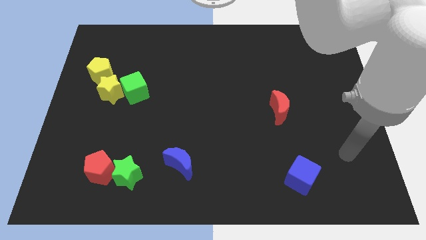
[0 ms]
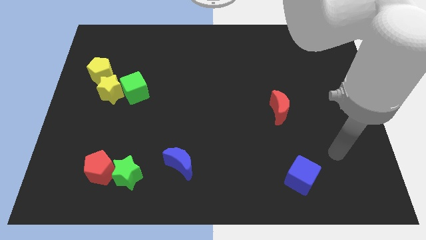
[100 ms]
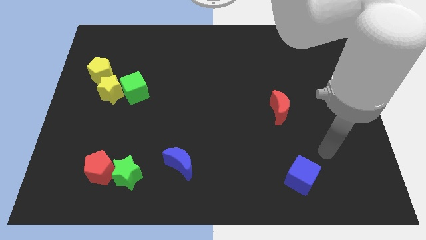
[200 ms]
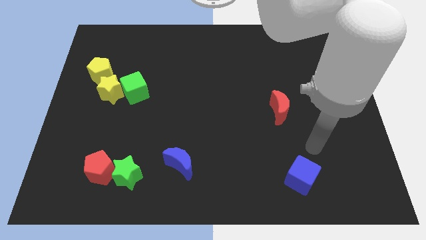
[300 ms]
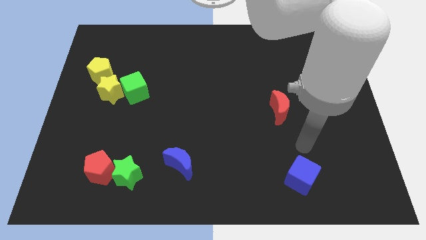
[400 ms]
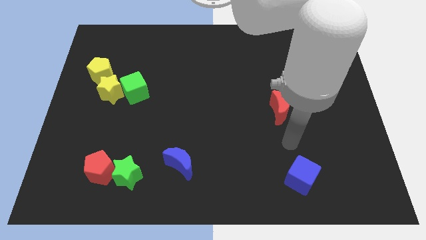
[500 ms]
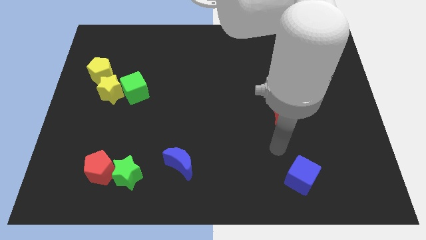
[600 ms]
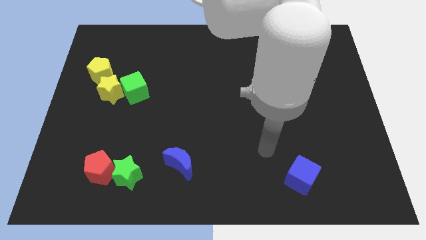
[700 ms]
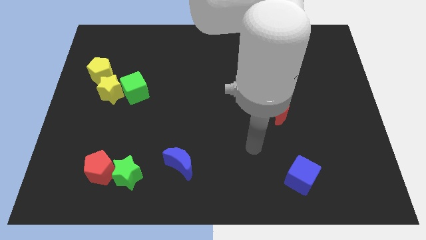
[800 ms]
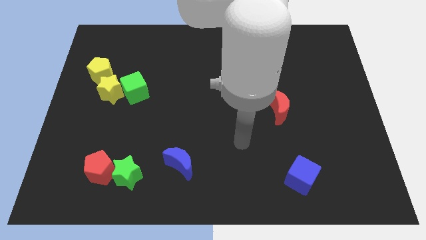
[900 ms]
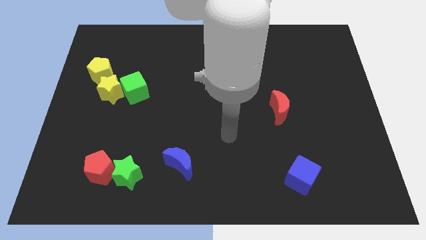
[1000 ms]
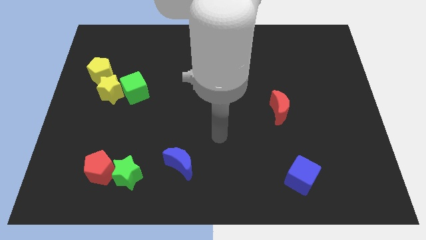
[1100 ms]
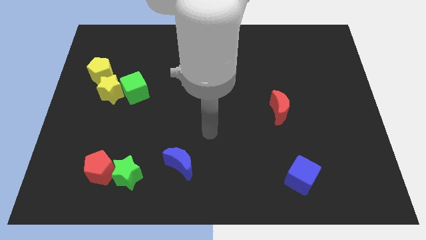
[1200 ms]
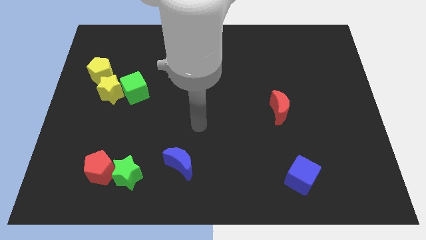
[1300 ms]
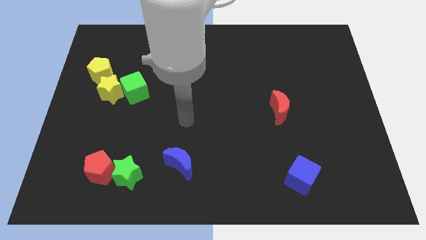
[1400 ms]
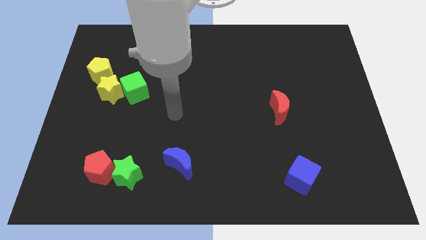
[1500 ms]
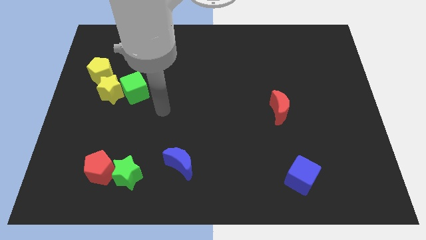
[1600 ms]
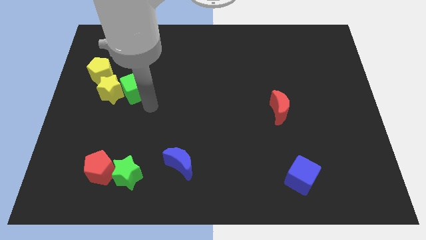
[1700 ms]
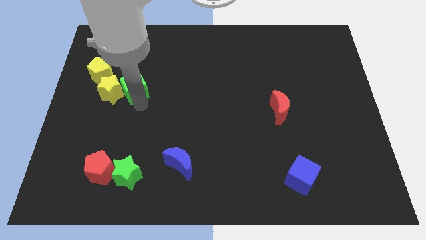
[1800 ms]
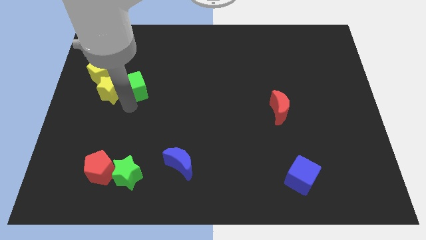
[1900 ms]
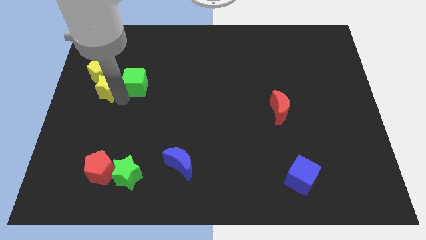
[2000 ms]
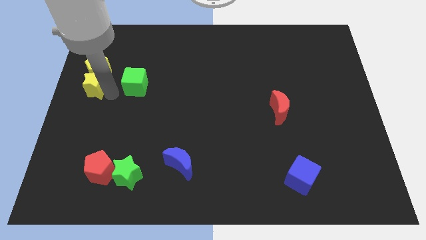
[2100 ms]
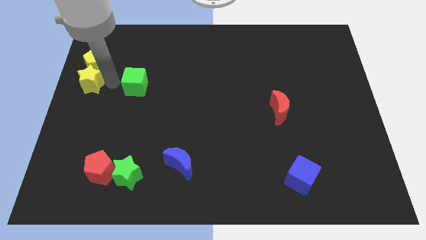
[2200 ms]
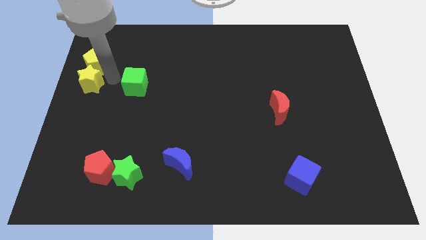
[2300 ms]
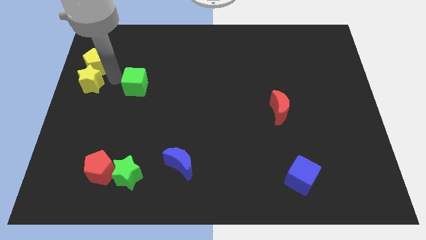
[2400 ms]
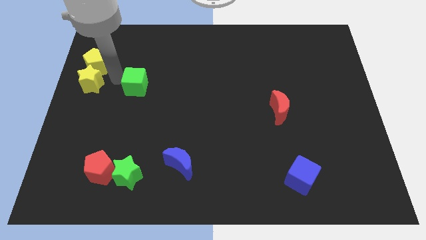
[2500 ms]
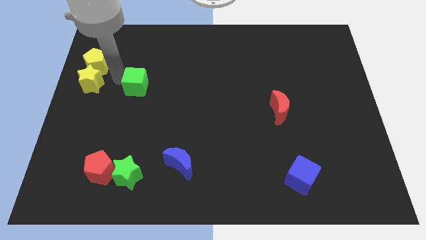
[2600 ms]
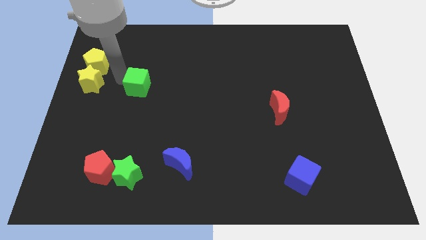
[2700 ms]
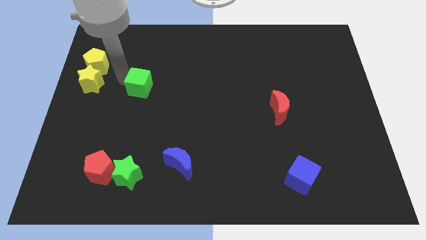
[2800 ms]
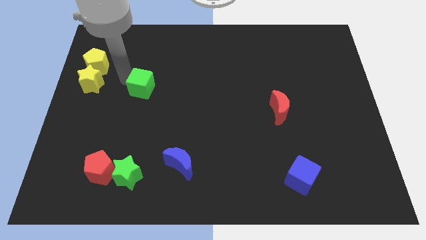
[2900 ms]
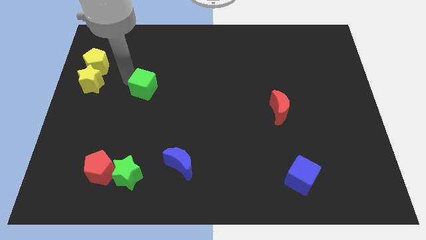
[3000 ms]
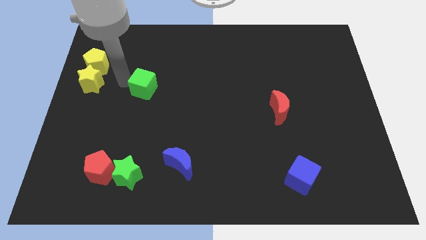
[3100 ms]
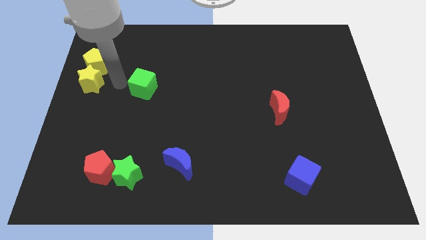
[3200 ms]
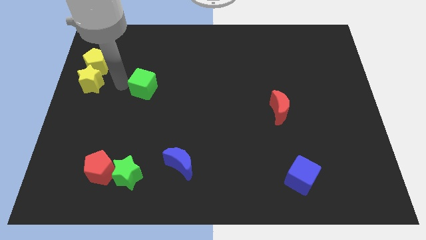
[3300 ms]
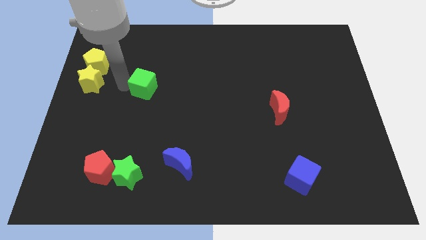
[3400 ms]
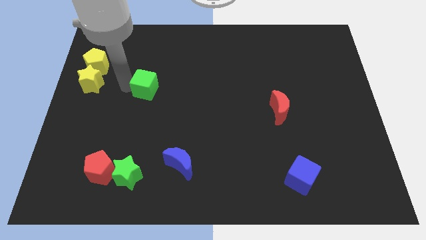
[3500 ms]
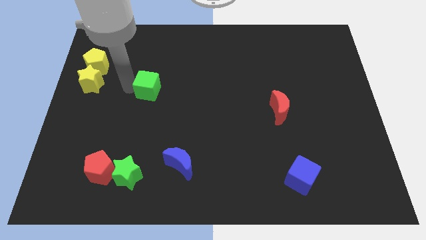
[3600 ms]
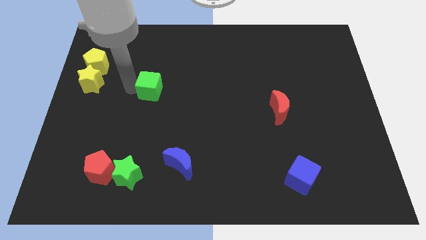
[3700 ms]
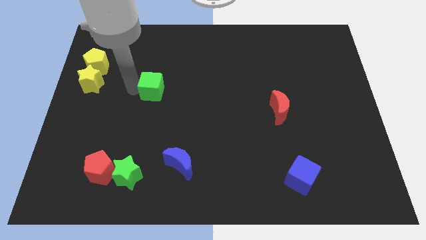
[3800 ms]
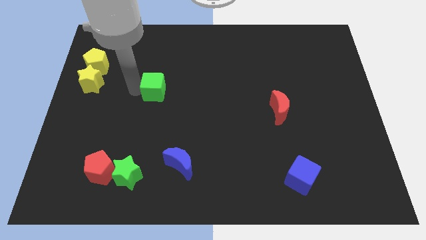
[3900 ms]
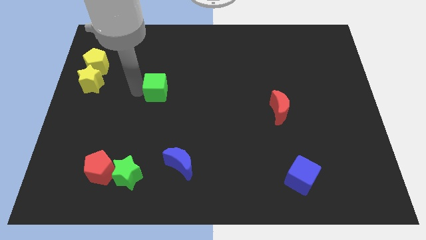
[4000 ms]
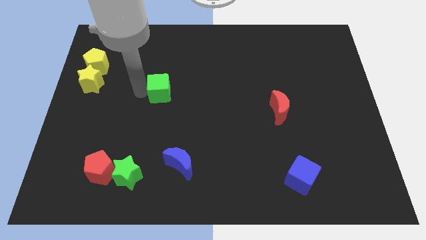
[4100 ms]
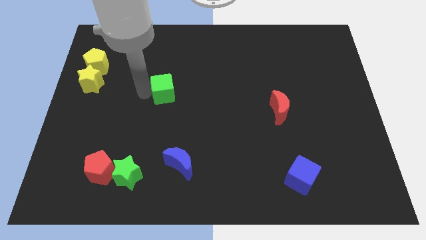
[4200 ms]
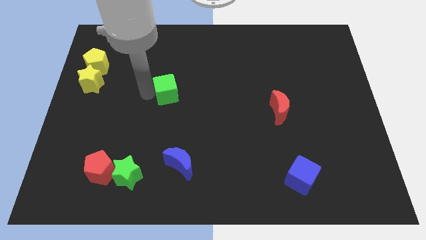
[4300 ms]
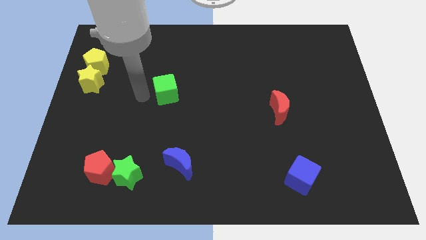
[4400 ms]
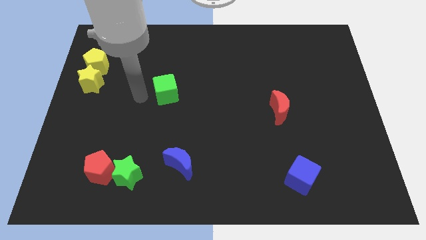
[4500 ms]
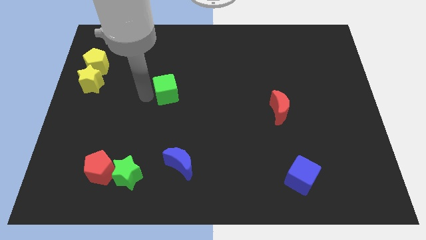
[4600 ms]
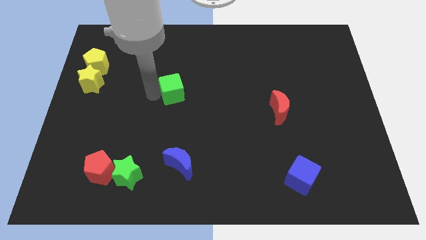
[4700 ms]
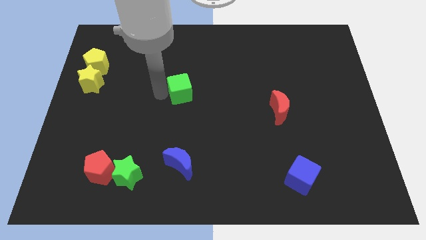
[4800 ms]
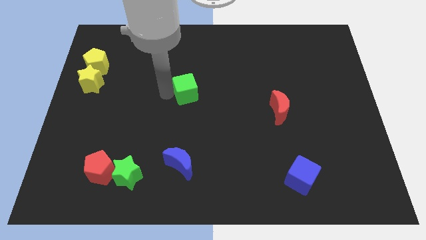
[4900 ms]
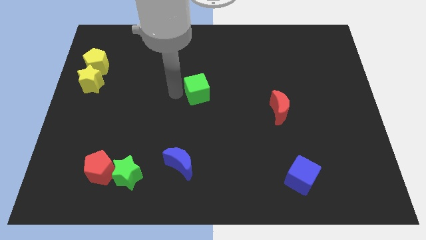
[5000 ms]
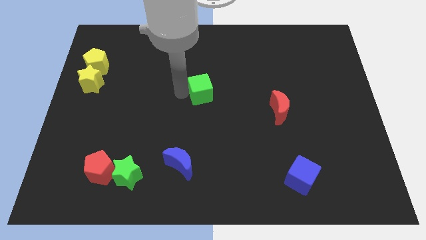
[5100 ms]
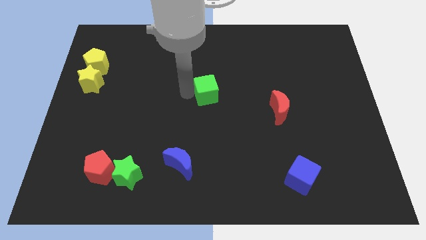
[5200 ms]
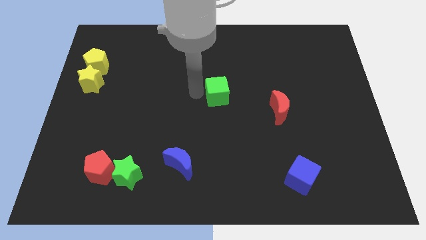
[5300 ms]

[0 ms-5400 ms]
move the green cube right

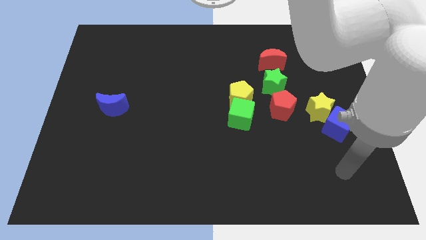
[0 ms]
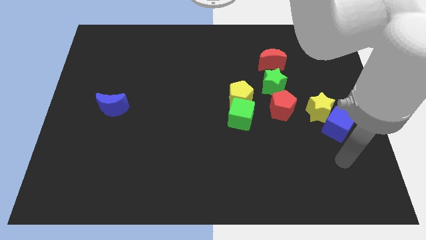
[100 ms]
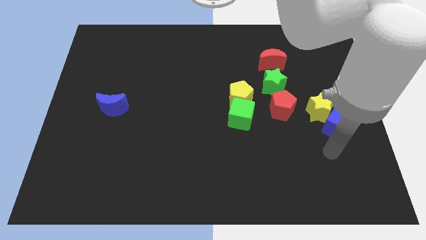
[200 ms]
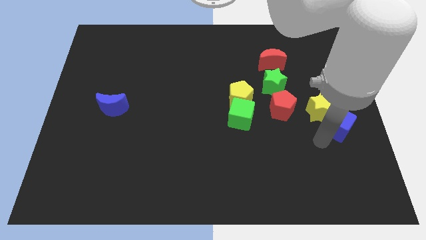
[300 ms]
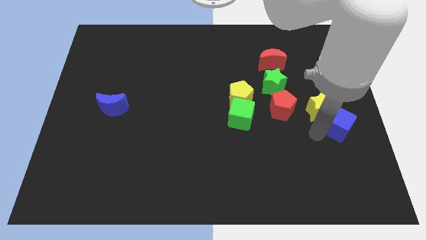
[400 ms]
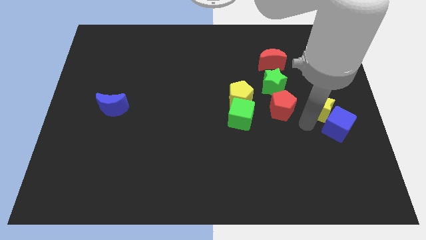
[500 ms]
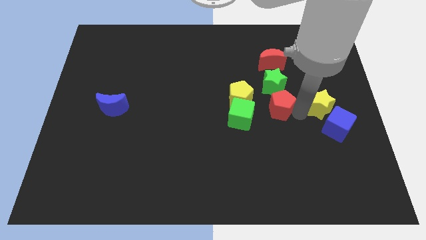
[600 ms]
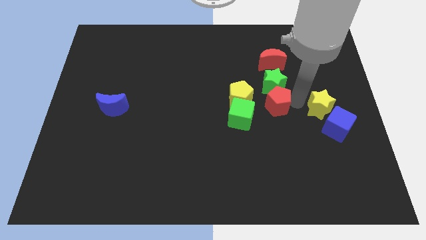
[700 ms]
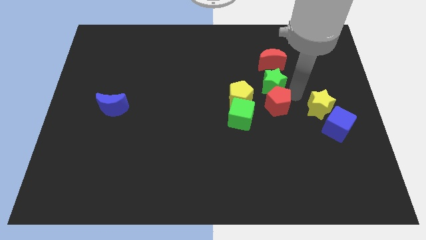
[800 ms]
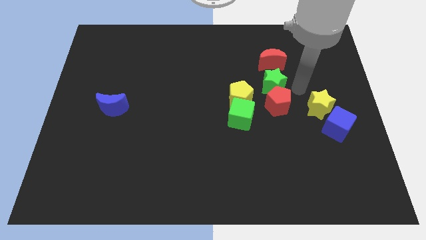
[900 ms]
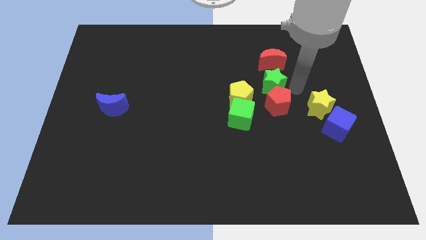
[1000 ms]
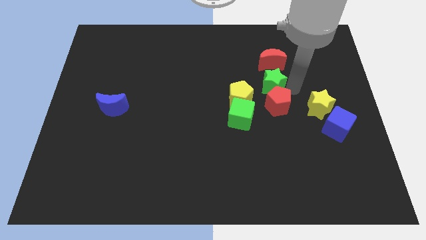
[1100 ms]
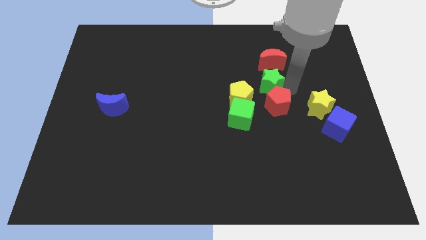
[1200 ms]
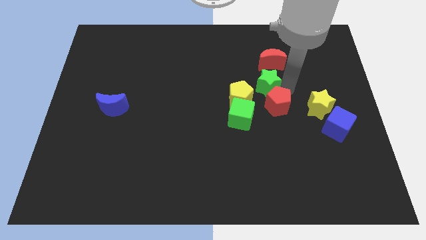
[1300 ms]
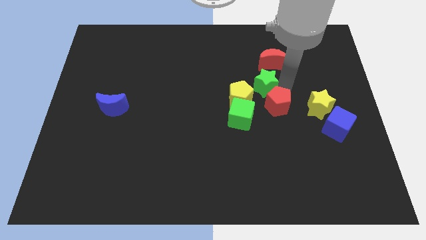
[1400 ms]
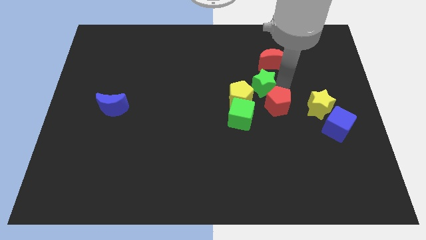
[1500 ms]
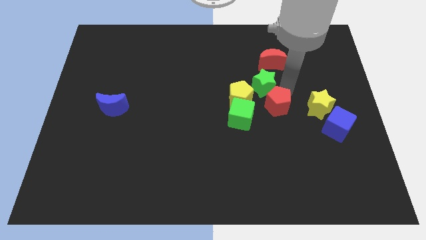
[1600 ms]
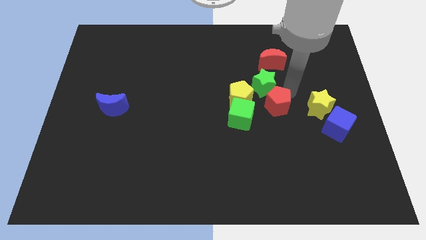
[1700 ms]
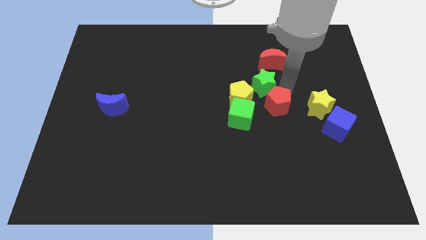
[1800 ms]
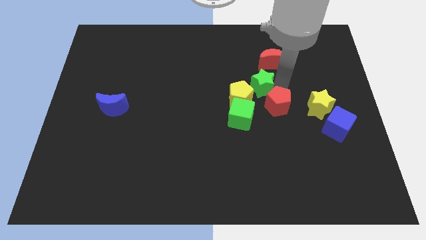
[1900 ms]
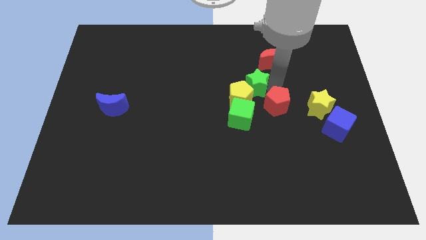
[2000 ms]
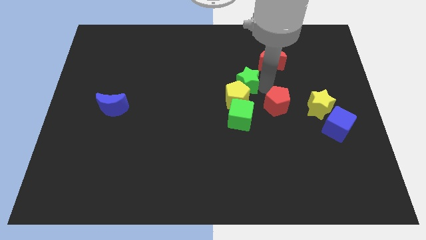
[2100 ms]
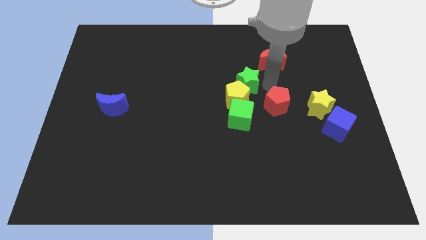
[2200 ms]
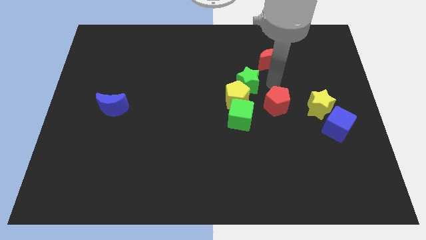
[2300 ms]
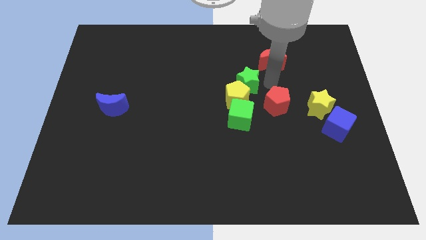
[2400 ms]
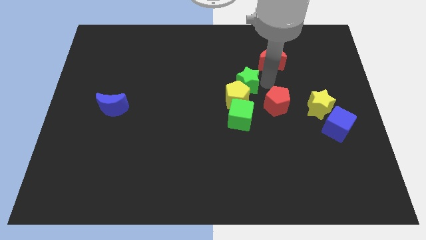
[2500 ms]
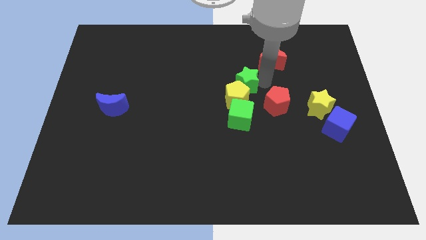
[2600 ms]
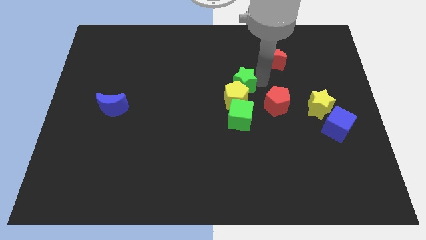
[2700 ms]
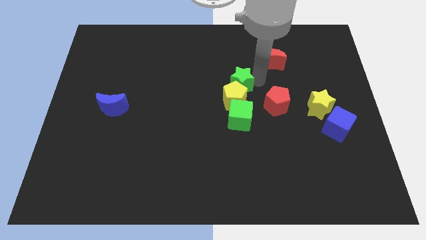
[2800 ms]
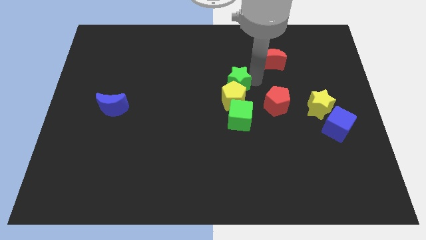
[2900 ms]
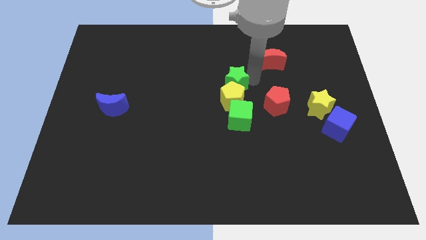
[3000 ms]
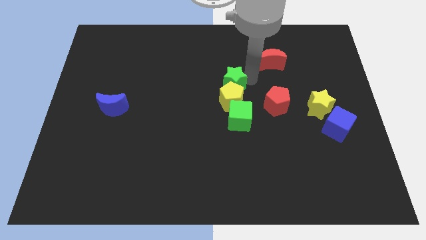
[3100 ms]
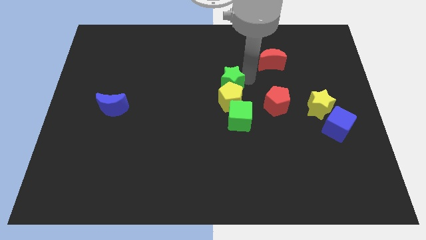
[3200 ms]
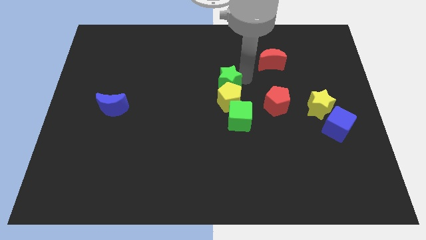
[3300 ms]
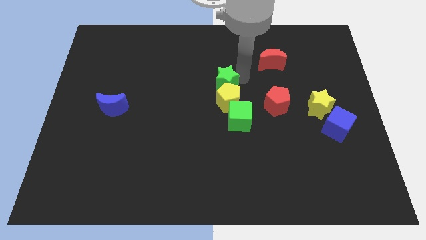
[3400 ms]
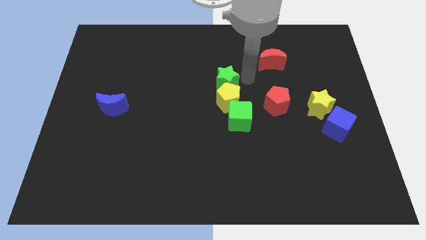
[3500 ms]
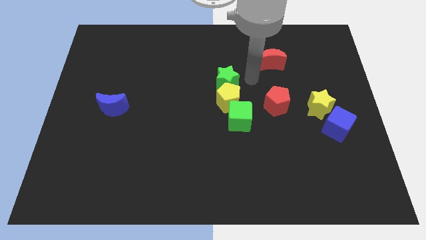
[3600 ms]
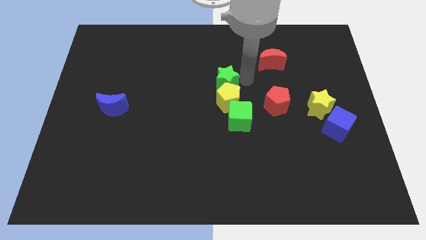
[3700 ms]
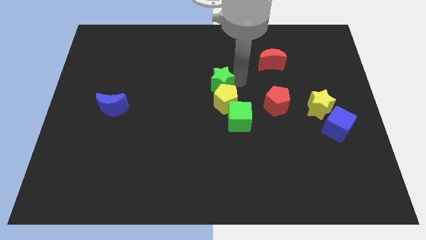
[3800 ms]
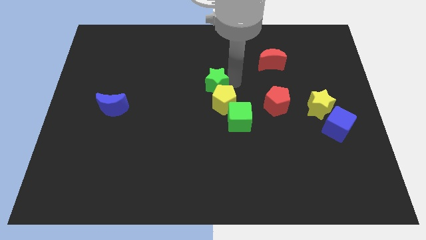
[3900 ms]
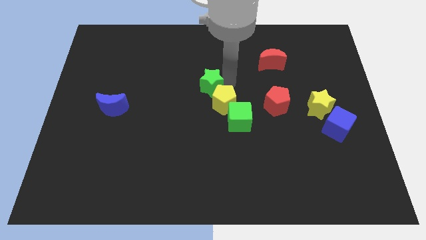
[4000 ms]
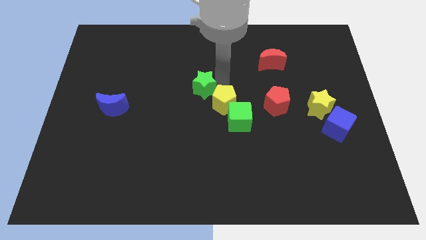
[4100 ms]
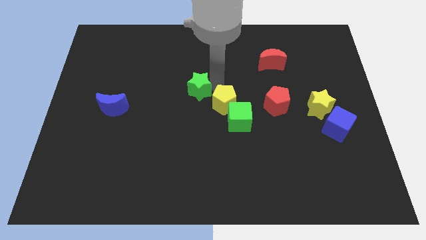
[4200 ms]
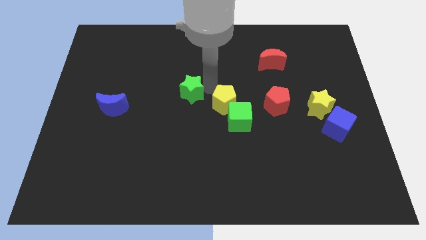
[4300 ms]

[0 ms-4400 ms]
move the green star left
